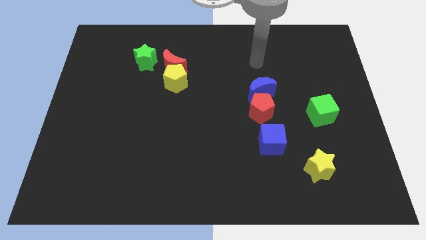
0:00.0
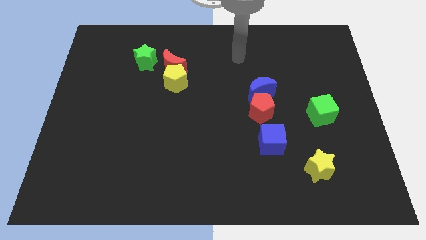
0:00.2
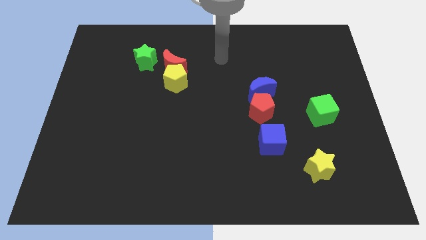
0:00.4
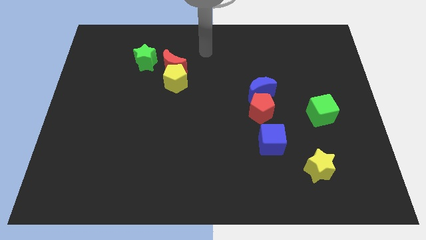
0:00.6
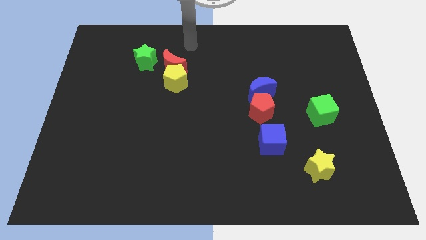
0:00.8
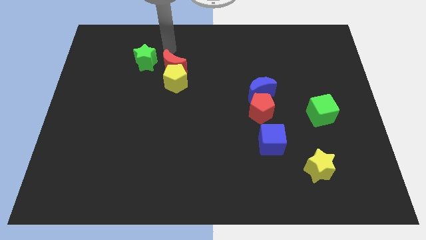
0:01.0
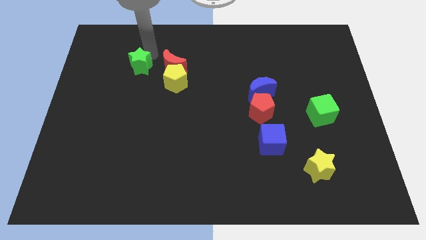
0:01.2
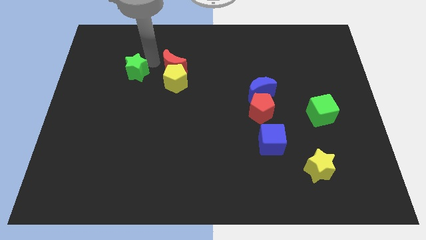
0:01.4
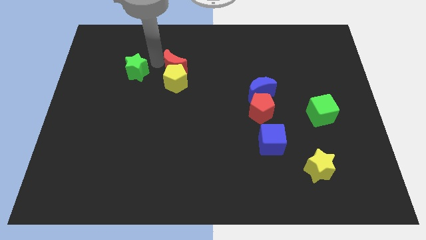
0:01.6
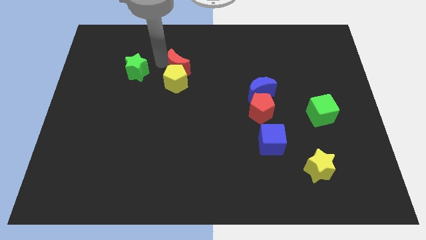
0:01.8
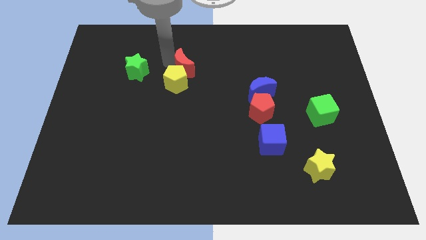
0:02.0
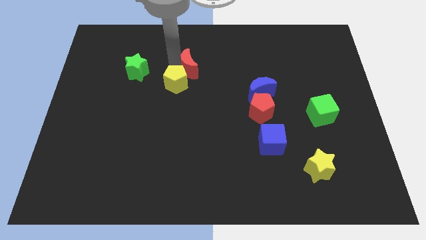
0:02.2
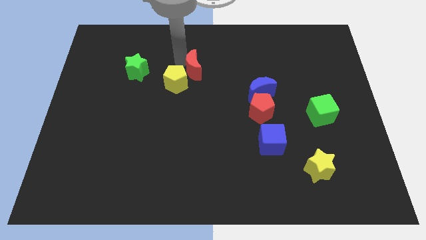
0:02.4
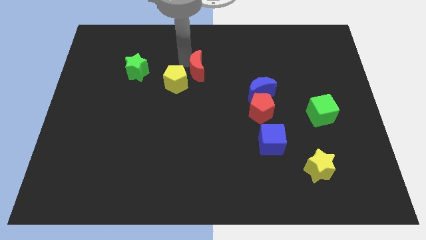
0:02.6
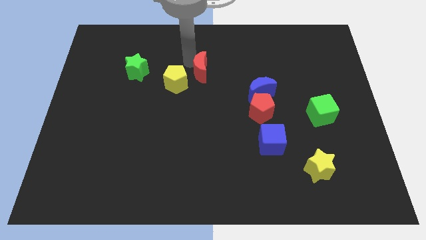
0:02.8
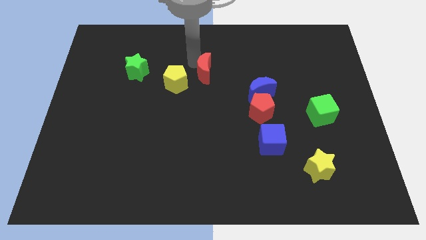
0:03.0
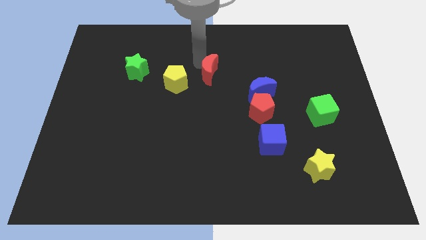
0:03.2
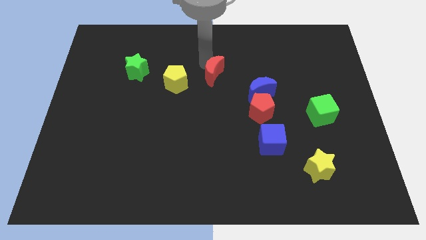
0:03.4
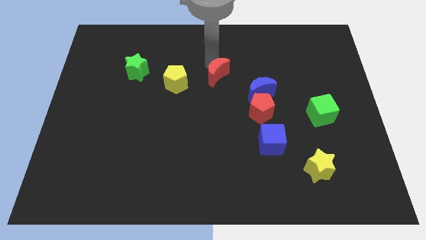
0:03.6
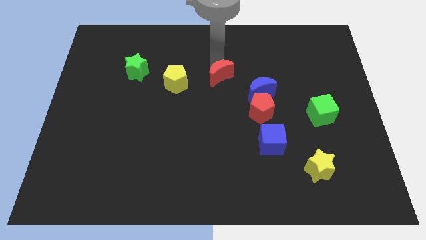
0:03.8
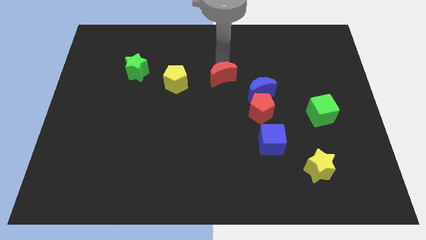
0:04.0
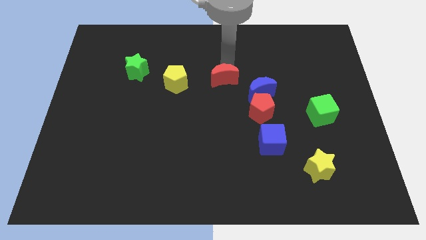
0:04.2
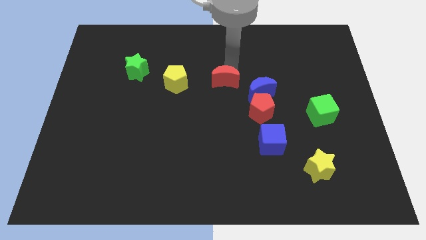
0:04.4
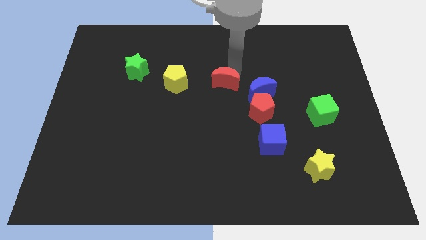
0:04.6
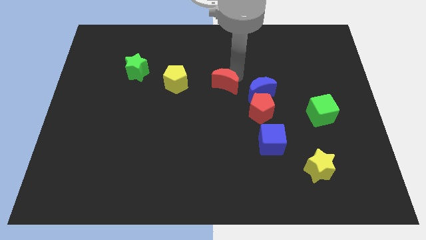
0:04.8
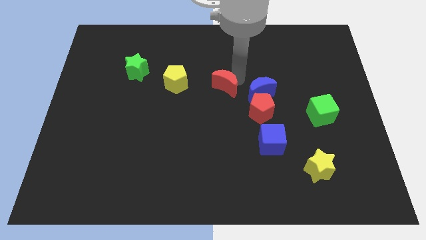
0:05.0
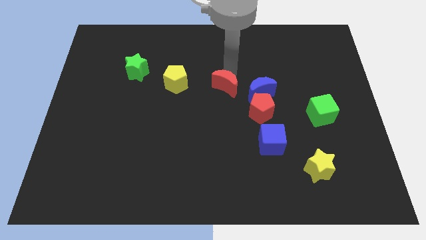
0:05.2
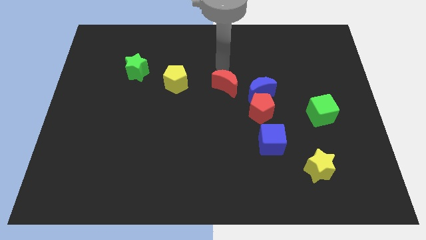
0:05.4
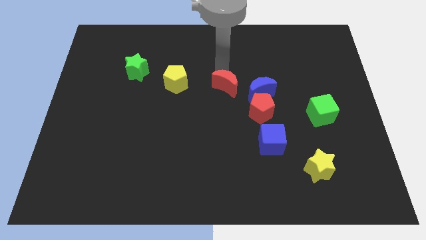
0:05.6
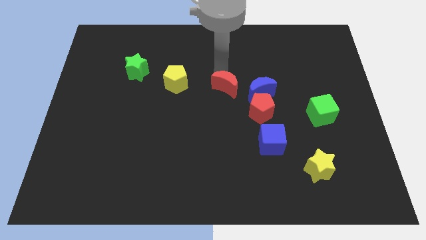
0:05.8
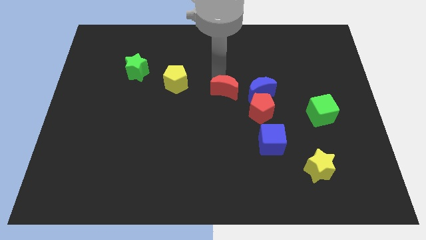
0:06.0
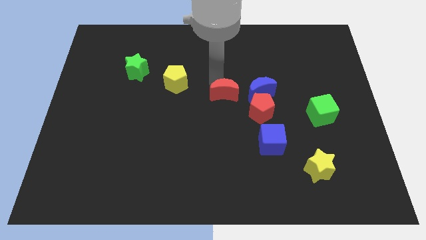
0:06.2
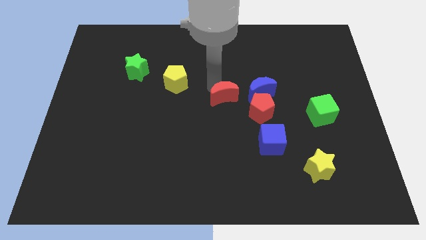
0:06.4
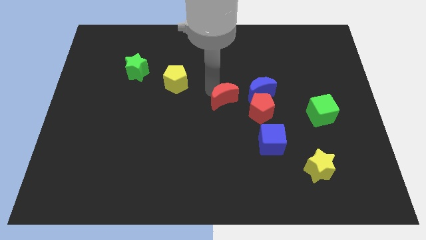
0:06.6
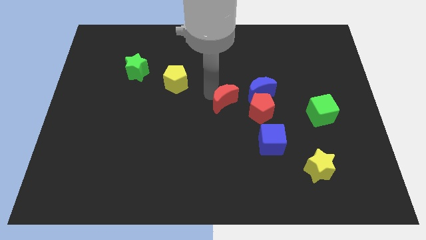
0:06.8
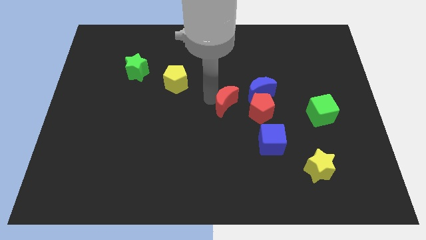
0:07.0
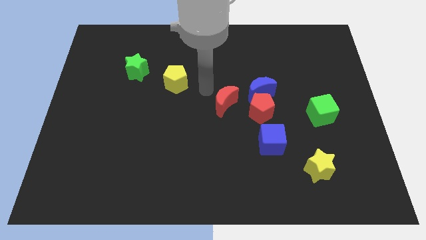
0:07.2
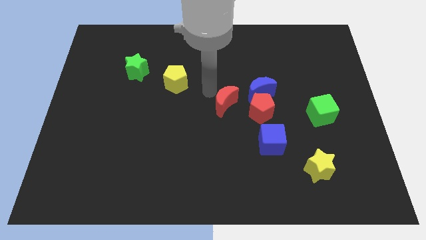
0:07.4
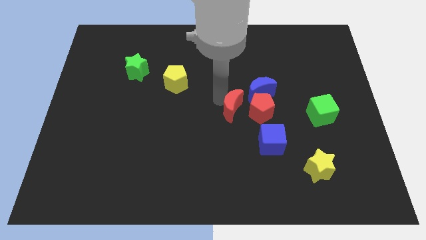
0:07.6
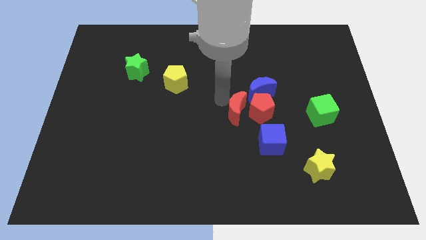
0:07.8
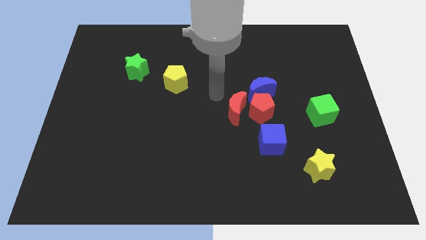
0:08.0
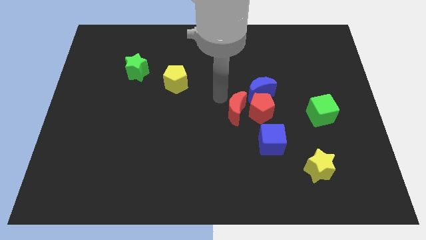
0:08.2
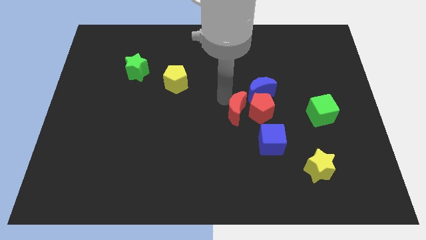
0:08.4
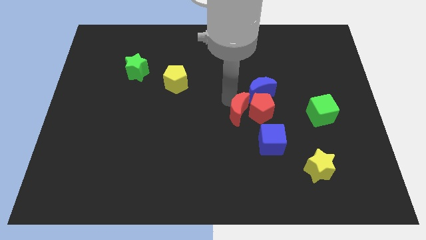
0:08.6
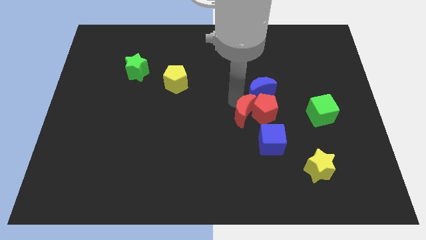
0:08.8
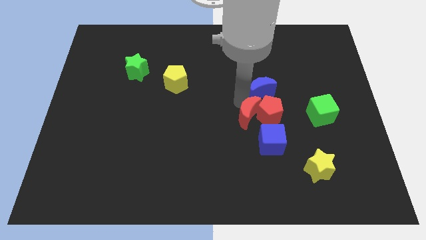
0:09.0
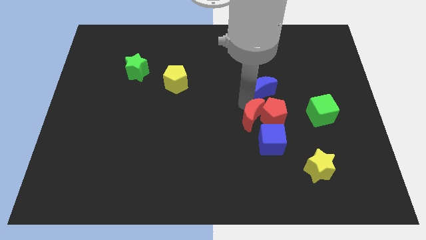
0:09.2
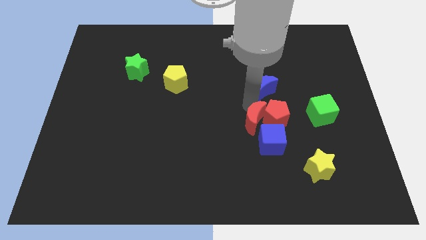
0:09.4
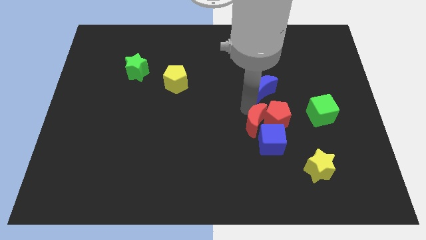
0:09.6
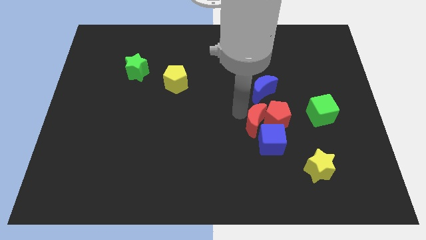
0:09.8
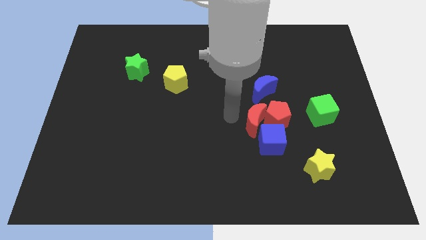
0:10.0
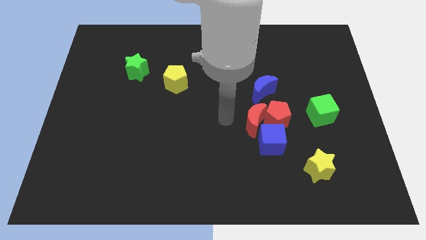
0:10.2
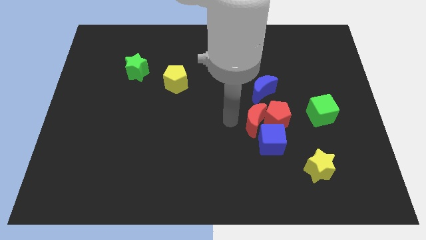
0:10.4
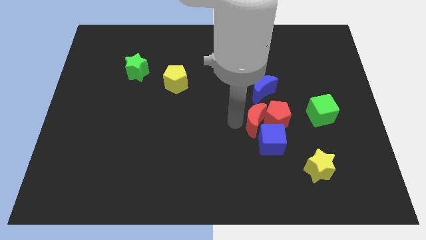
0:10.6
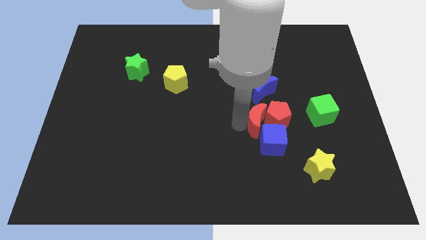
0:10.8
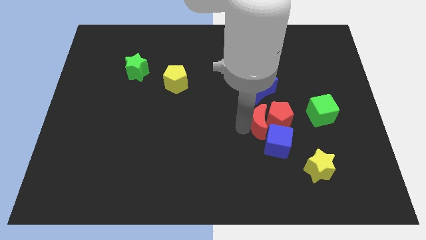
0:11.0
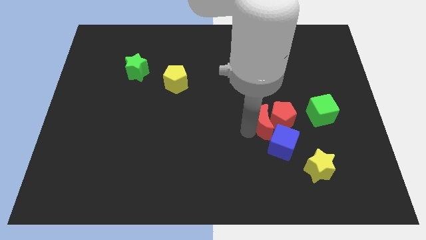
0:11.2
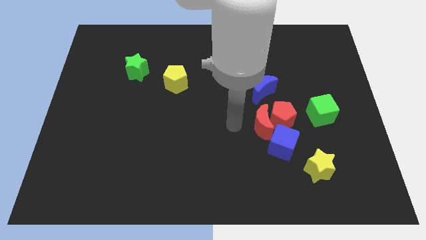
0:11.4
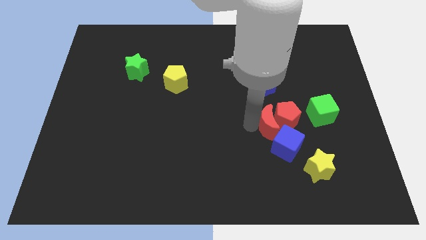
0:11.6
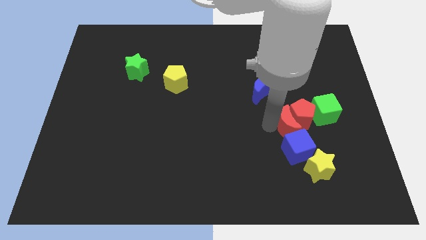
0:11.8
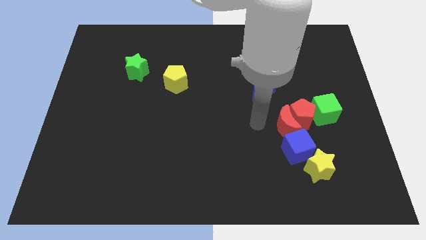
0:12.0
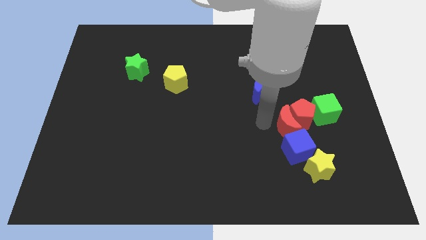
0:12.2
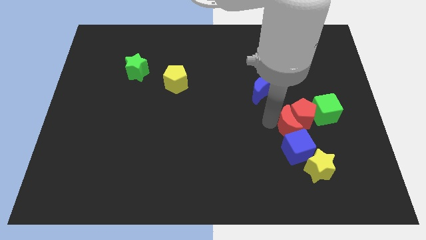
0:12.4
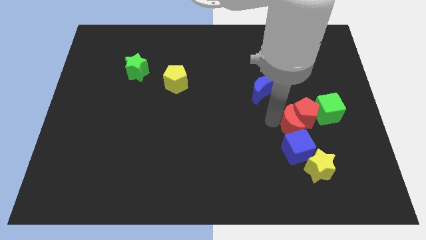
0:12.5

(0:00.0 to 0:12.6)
put the red moon to the top right side of the blue cube
